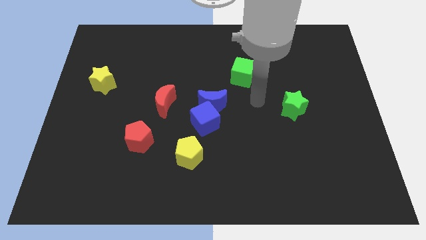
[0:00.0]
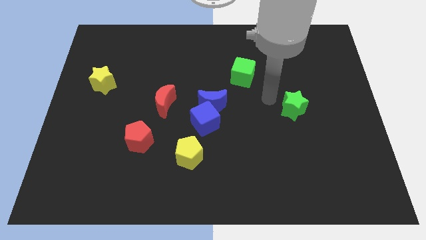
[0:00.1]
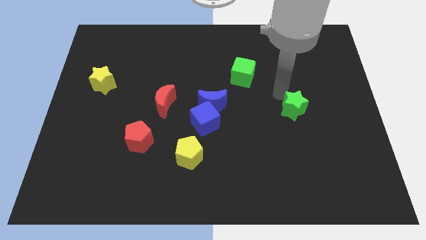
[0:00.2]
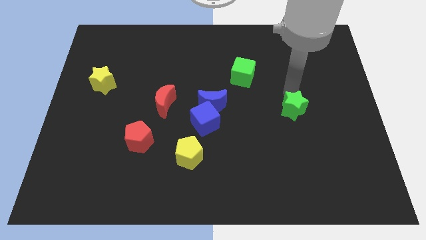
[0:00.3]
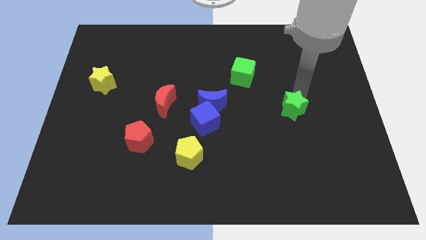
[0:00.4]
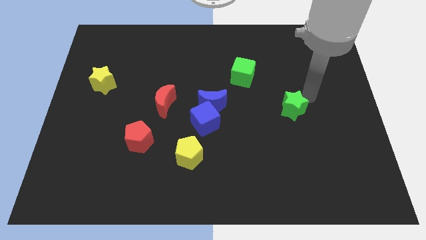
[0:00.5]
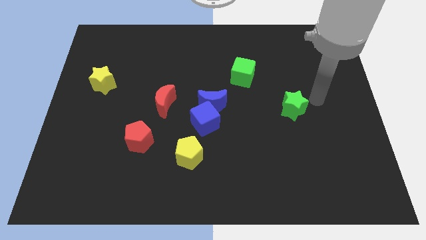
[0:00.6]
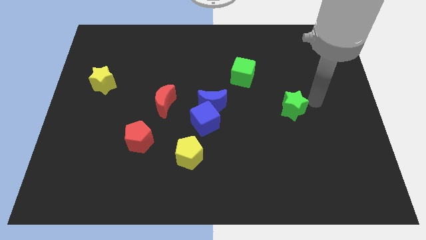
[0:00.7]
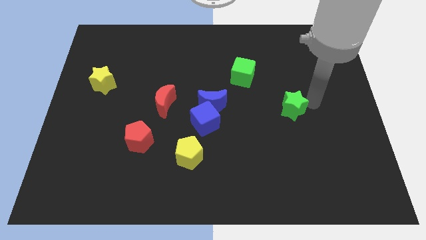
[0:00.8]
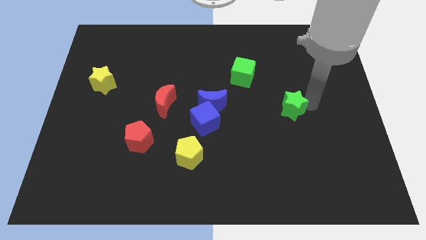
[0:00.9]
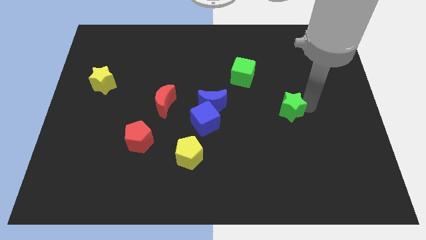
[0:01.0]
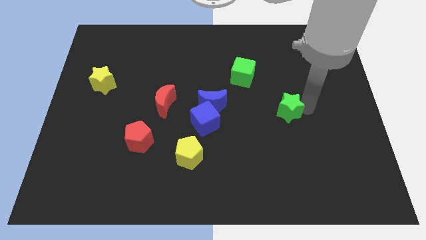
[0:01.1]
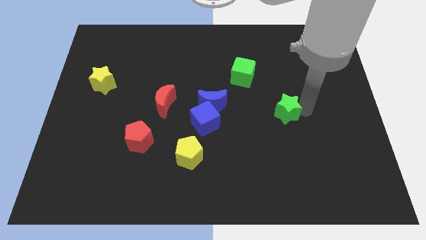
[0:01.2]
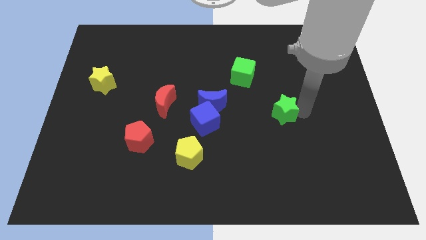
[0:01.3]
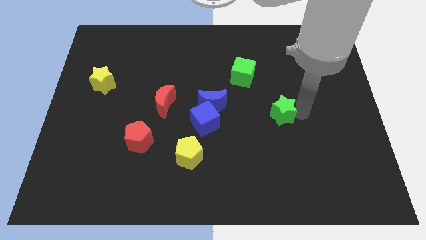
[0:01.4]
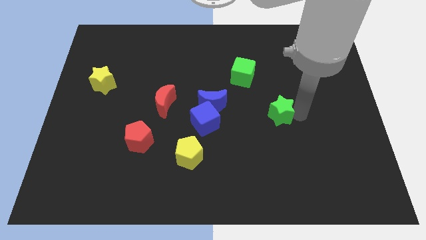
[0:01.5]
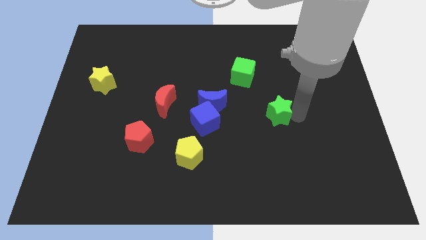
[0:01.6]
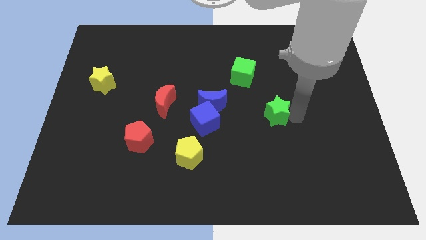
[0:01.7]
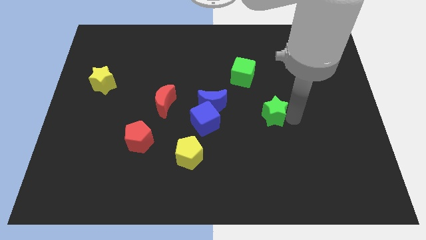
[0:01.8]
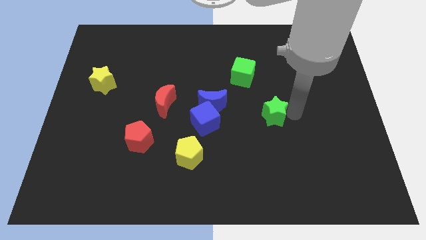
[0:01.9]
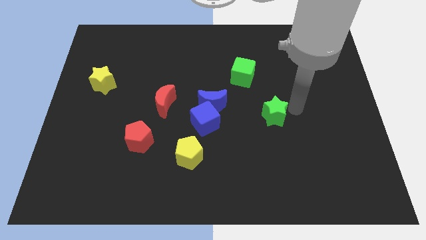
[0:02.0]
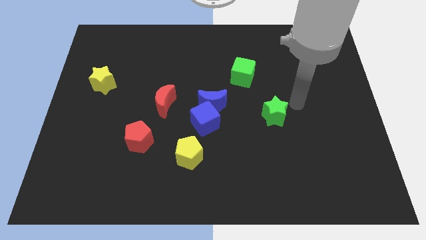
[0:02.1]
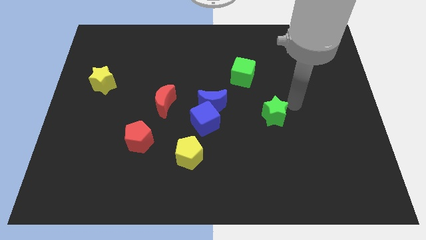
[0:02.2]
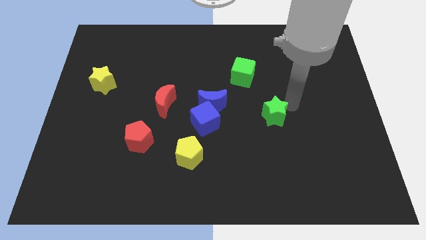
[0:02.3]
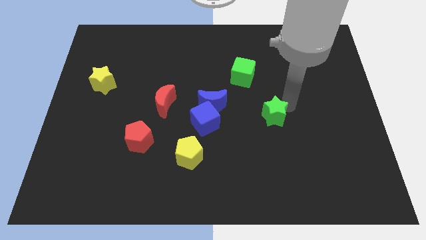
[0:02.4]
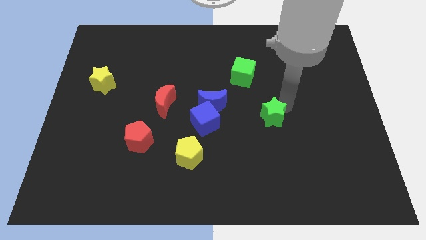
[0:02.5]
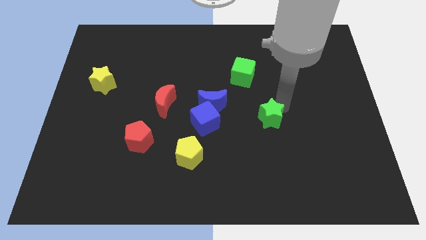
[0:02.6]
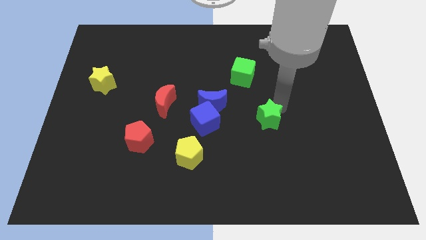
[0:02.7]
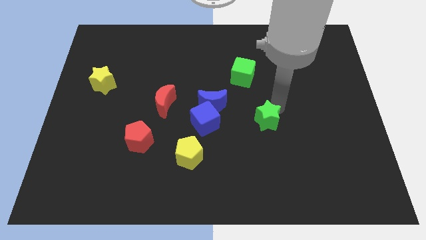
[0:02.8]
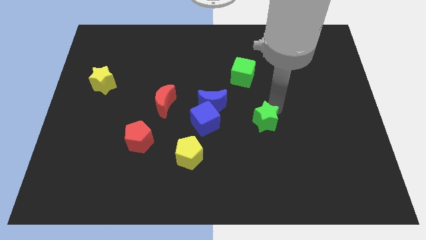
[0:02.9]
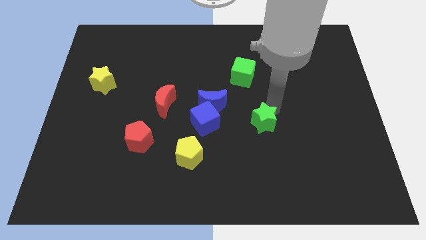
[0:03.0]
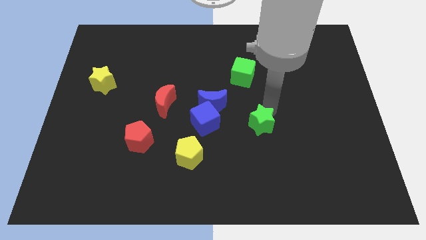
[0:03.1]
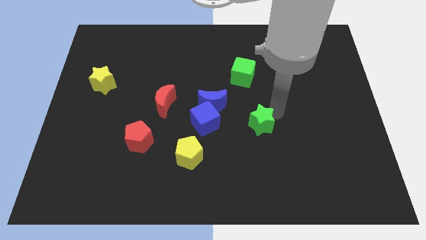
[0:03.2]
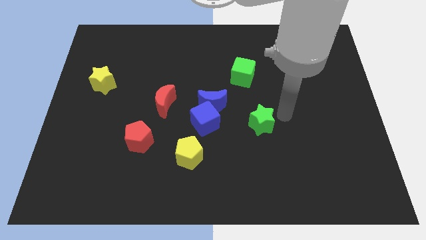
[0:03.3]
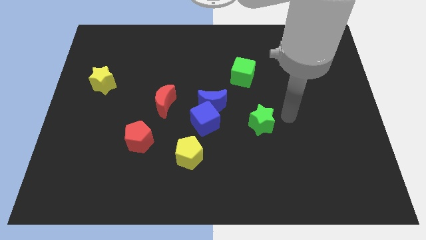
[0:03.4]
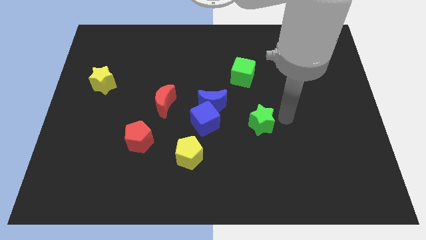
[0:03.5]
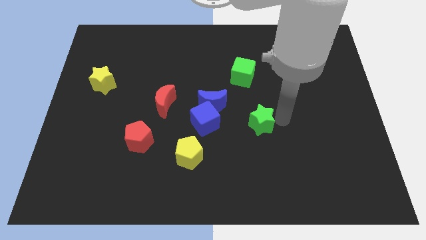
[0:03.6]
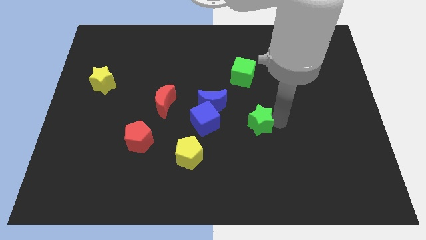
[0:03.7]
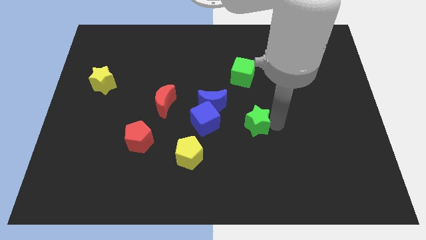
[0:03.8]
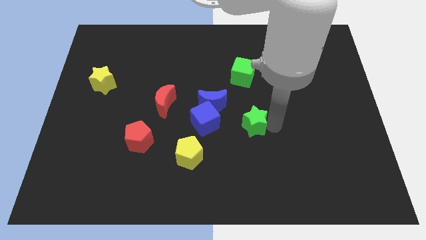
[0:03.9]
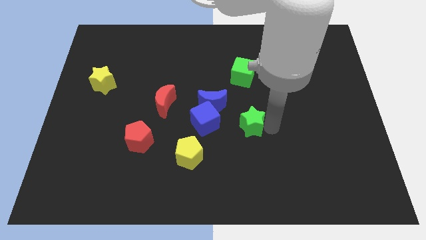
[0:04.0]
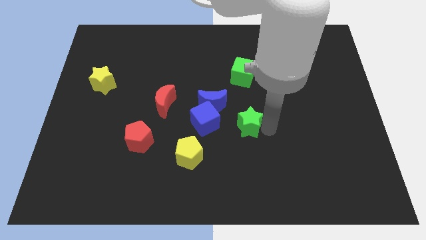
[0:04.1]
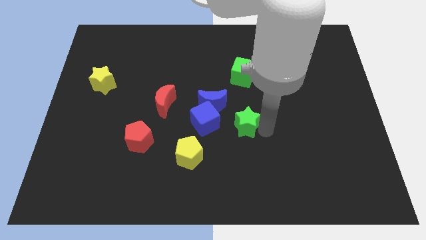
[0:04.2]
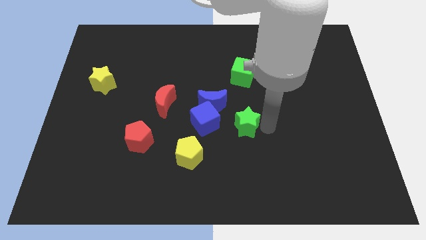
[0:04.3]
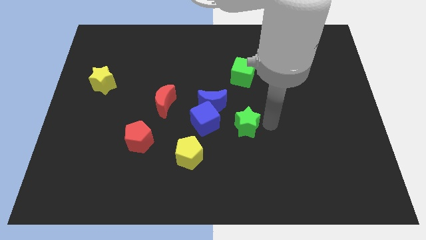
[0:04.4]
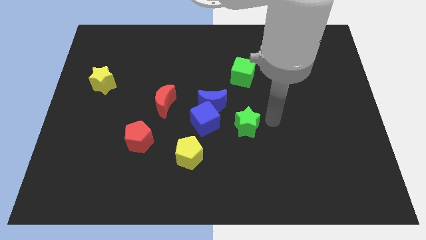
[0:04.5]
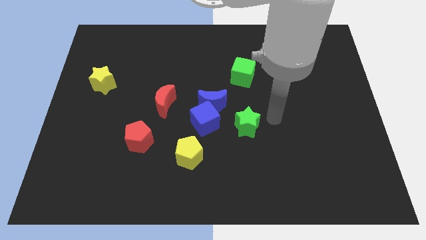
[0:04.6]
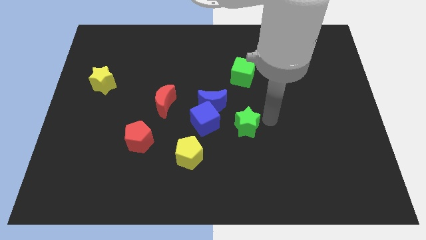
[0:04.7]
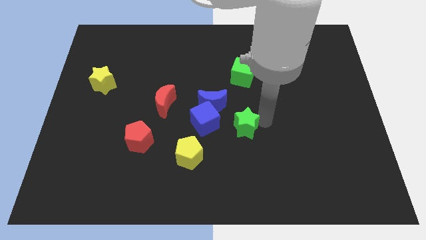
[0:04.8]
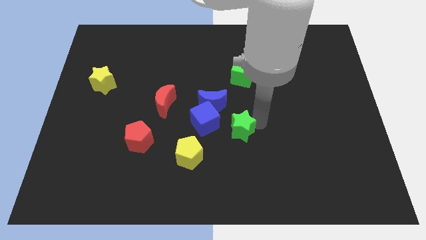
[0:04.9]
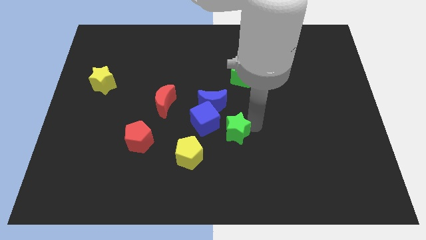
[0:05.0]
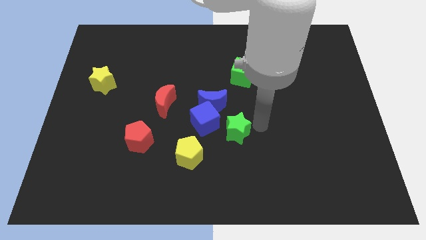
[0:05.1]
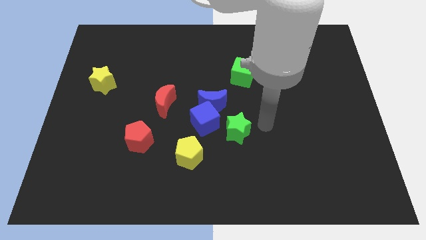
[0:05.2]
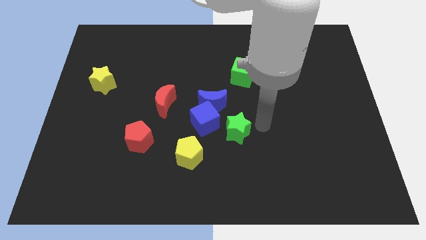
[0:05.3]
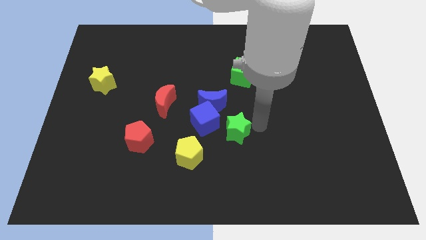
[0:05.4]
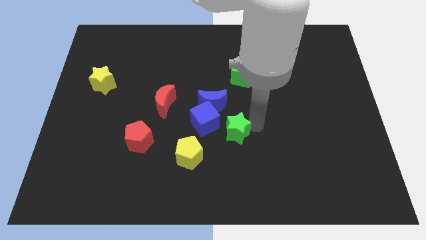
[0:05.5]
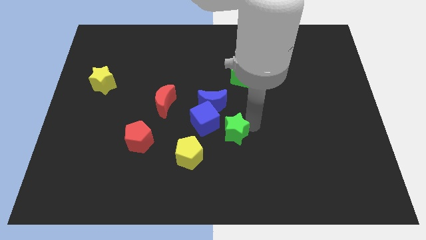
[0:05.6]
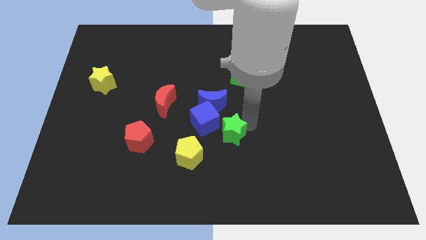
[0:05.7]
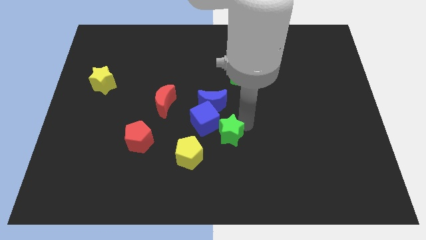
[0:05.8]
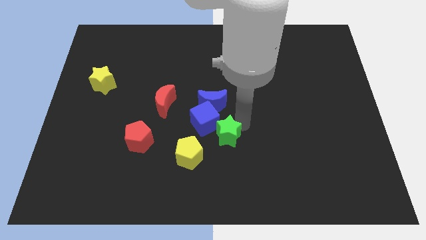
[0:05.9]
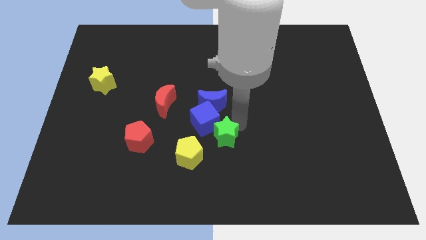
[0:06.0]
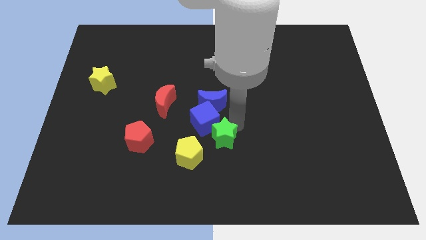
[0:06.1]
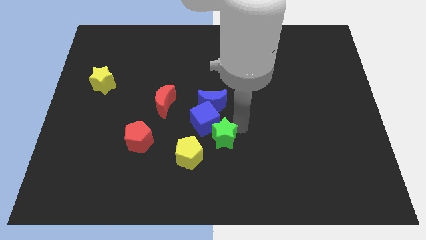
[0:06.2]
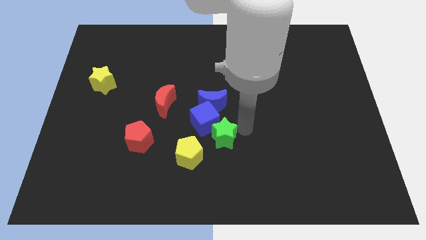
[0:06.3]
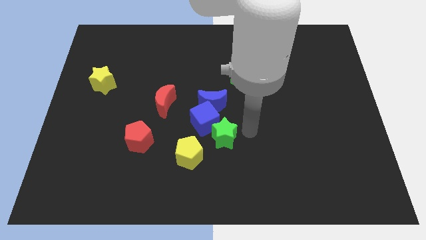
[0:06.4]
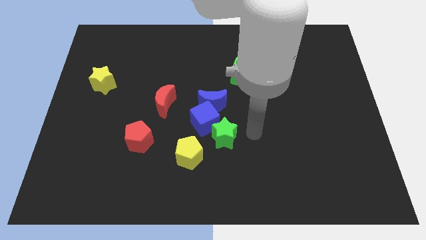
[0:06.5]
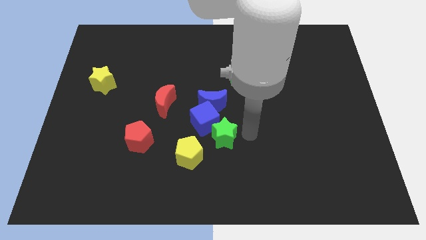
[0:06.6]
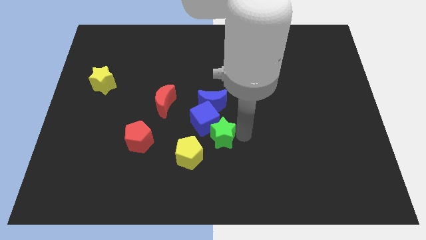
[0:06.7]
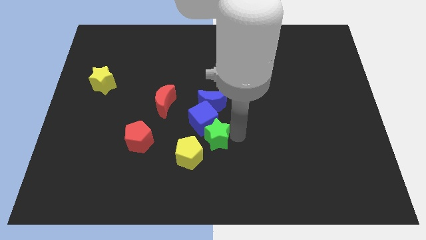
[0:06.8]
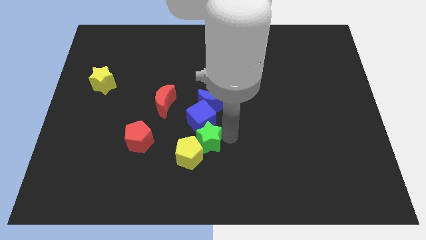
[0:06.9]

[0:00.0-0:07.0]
push the green star just right of the red pentagon
